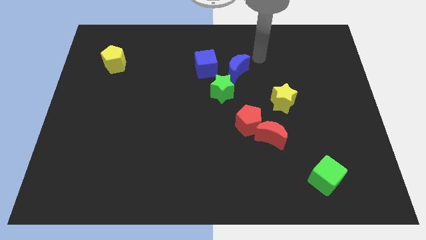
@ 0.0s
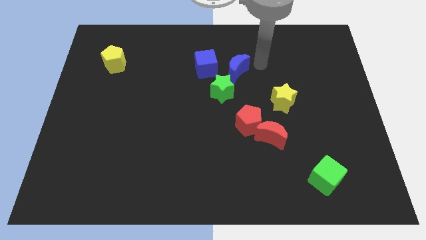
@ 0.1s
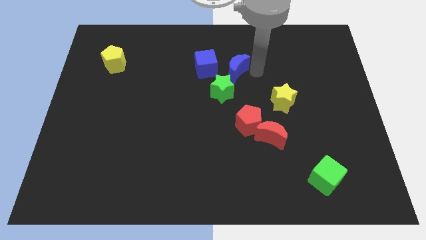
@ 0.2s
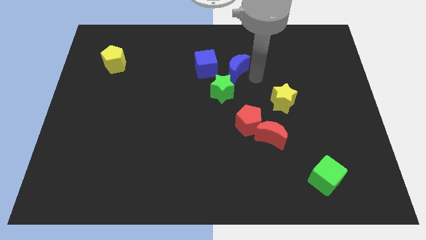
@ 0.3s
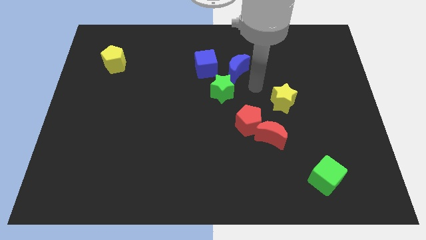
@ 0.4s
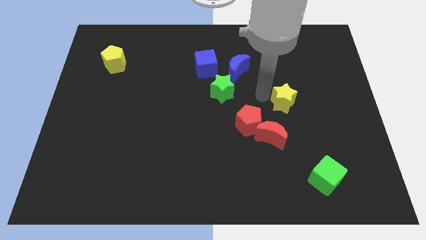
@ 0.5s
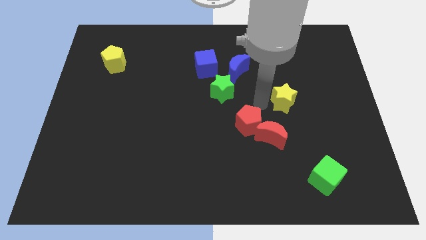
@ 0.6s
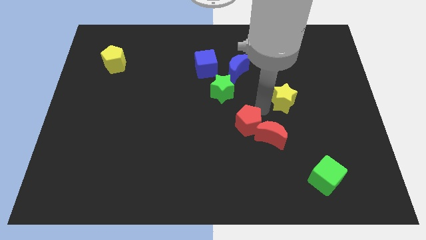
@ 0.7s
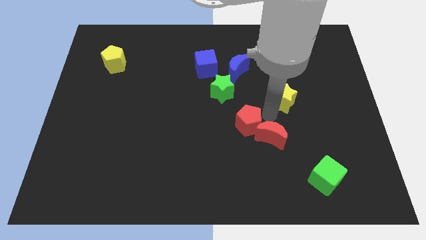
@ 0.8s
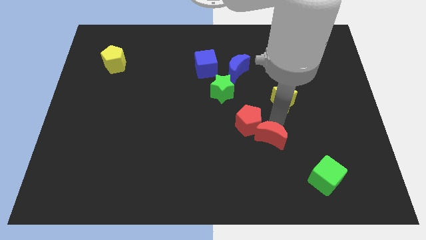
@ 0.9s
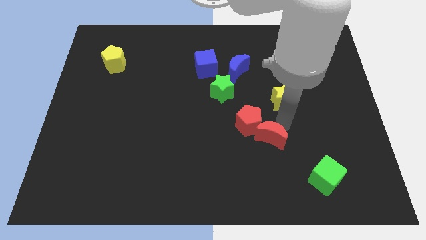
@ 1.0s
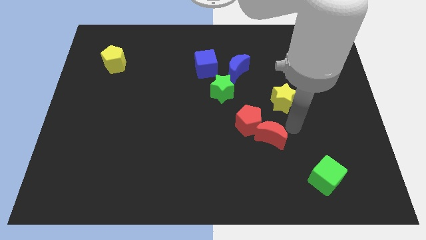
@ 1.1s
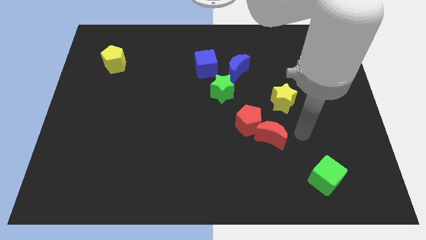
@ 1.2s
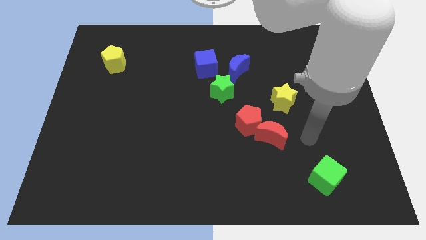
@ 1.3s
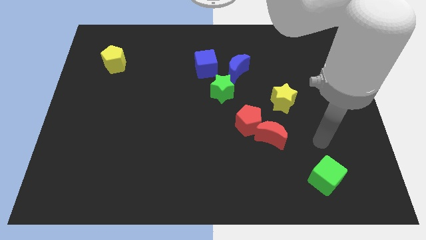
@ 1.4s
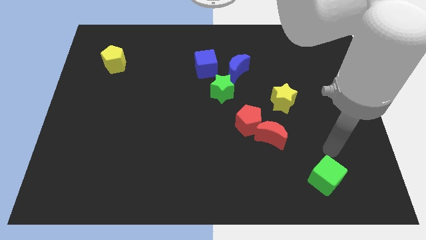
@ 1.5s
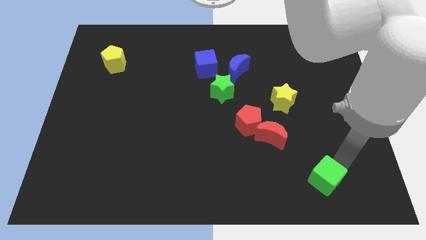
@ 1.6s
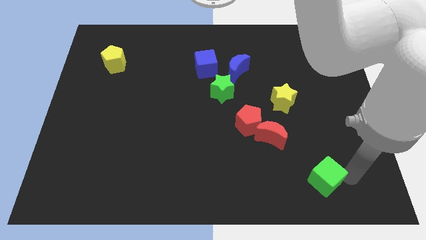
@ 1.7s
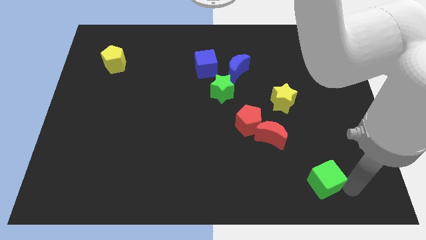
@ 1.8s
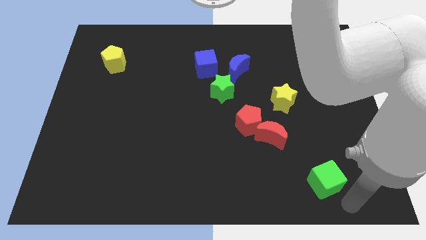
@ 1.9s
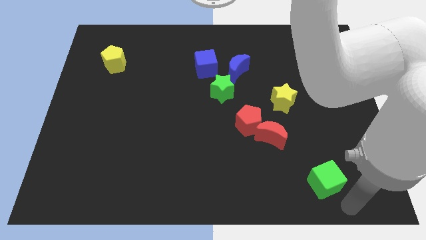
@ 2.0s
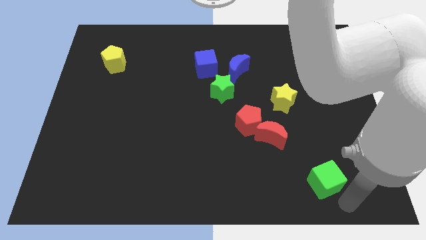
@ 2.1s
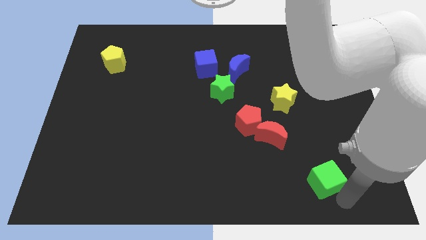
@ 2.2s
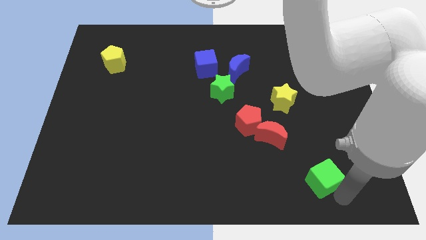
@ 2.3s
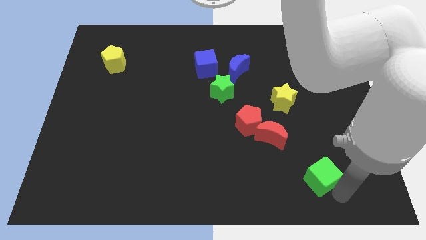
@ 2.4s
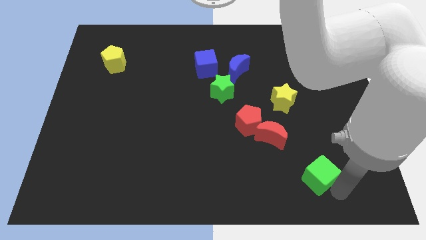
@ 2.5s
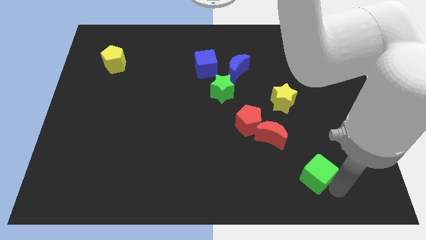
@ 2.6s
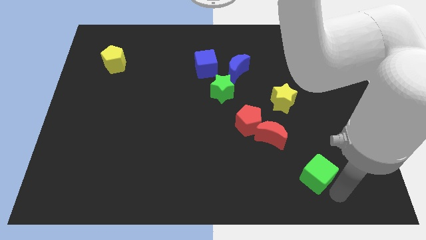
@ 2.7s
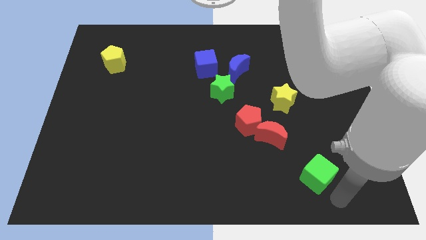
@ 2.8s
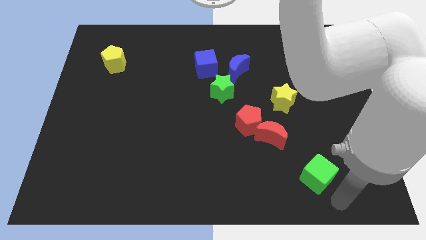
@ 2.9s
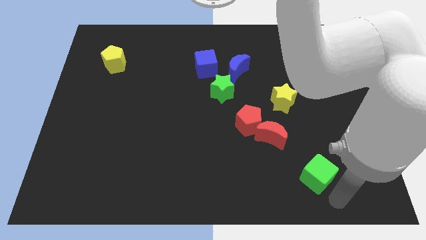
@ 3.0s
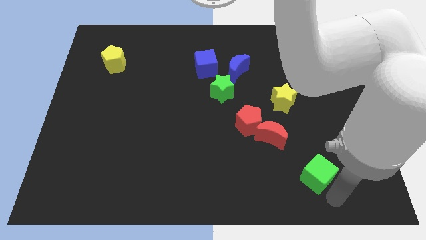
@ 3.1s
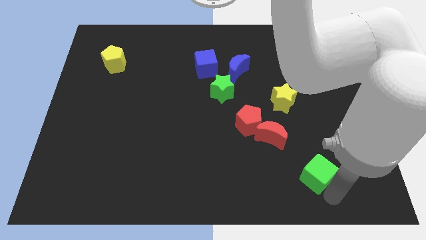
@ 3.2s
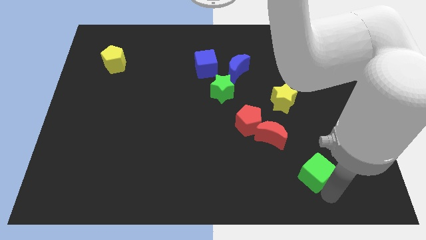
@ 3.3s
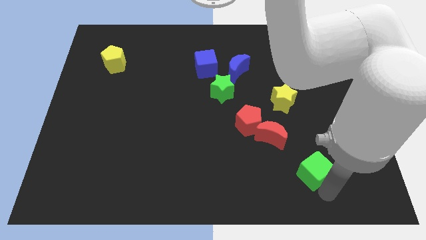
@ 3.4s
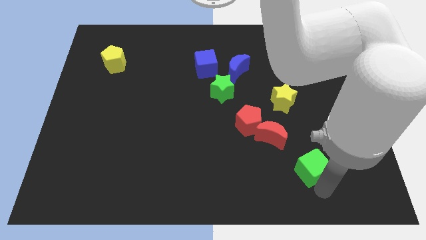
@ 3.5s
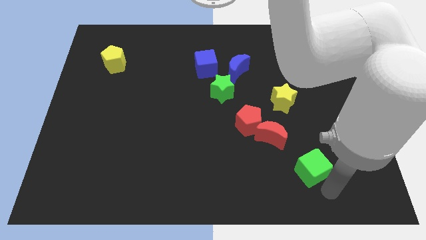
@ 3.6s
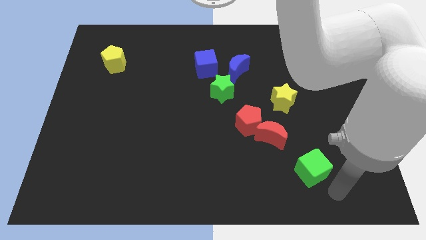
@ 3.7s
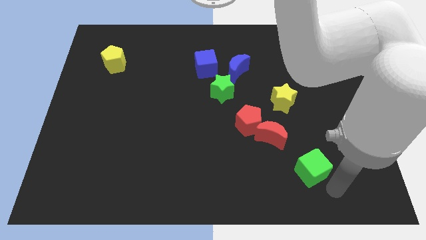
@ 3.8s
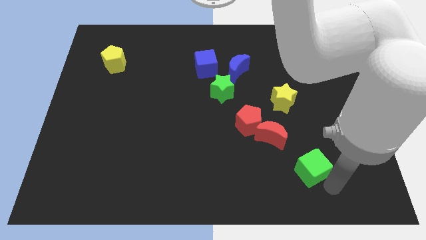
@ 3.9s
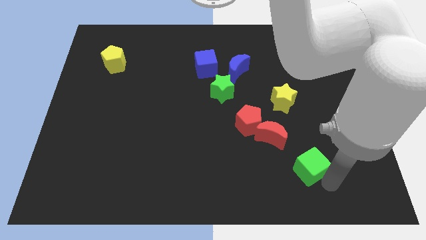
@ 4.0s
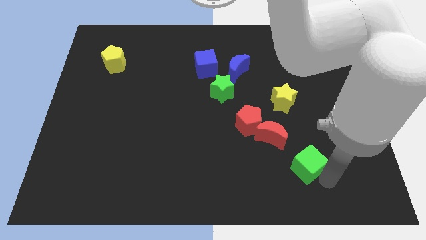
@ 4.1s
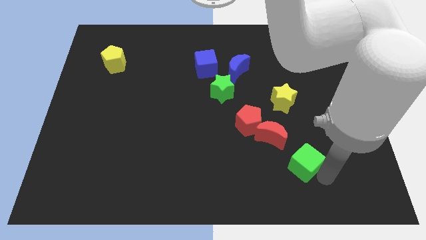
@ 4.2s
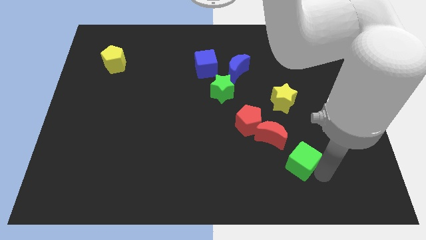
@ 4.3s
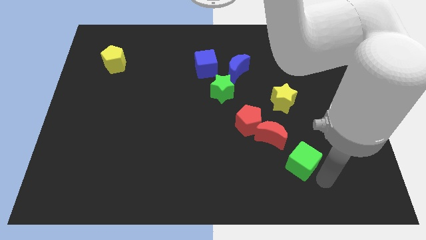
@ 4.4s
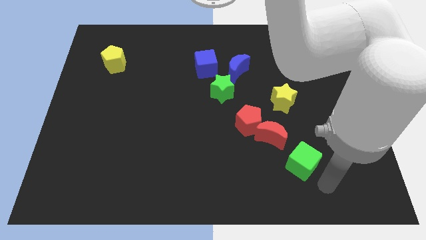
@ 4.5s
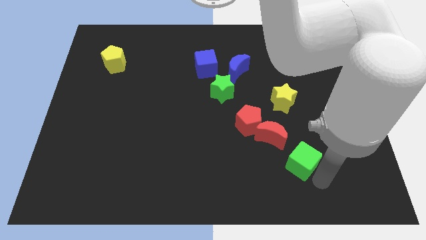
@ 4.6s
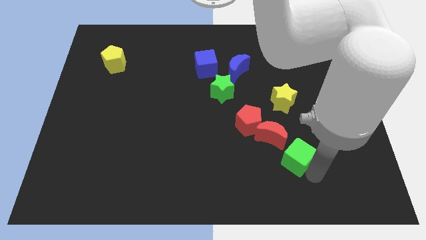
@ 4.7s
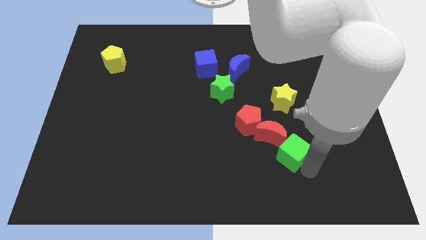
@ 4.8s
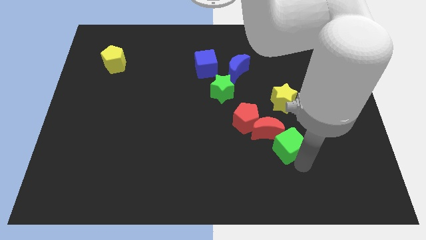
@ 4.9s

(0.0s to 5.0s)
put the green cube to the red moon

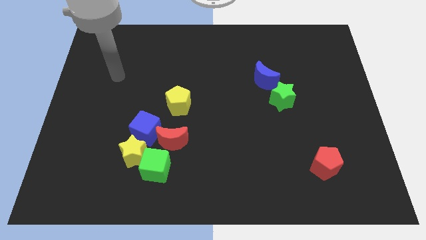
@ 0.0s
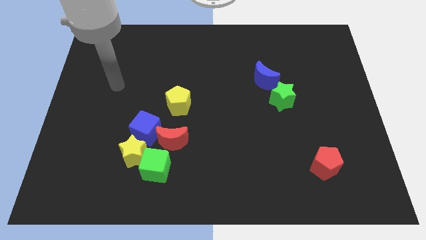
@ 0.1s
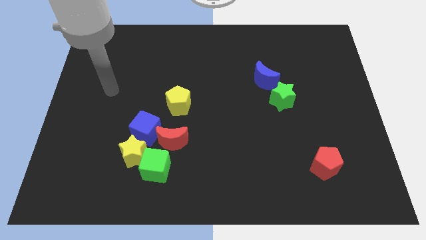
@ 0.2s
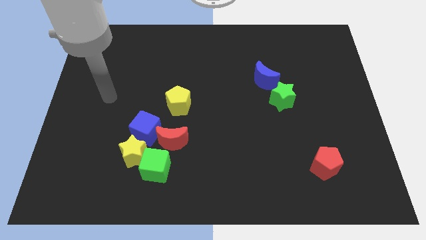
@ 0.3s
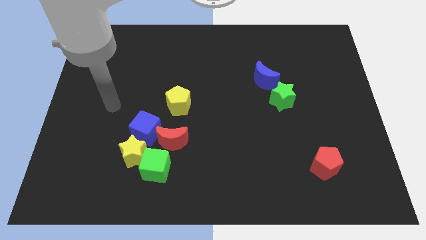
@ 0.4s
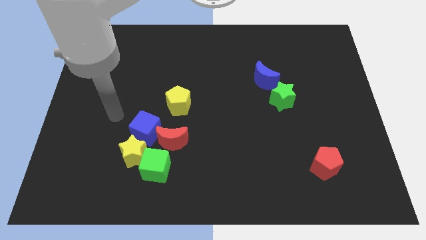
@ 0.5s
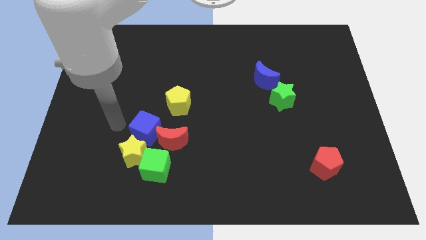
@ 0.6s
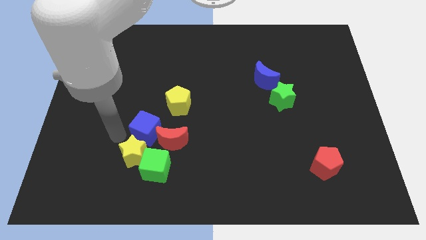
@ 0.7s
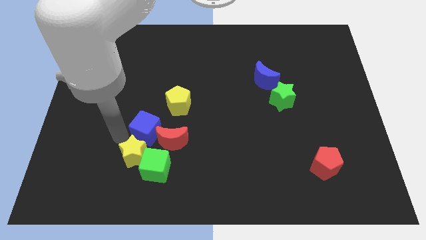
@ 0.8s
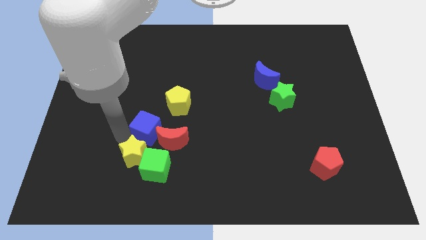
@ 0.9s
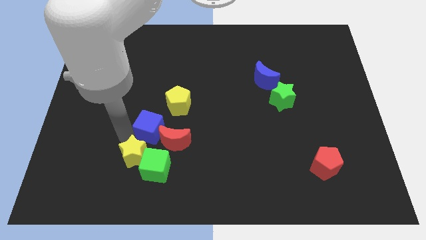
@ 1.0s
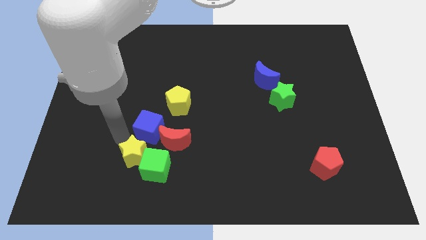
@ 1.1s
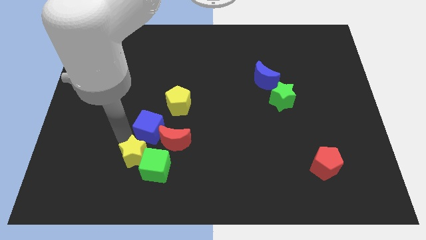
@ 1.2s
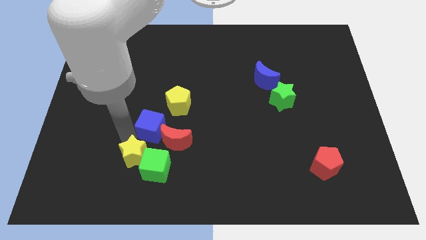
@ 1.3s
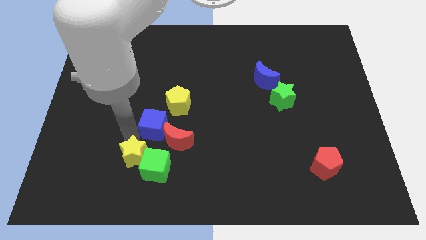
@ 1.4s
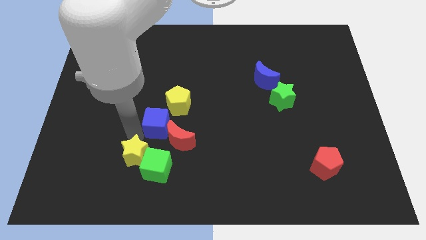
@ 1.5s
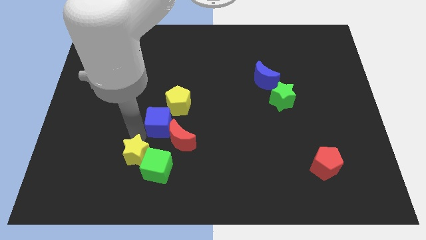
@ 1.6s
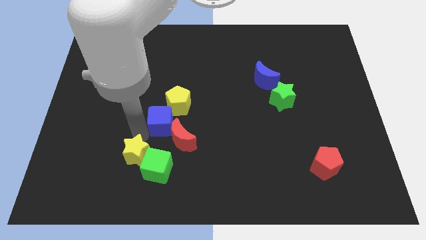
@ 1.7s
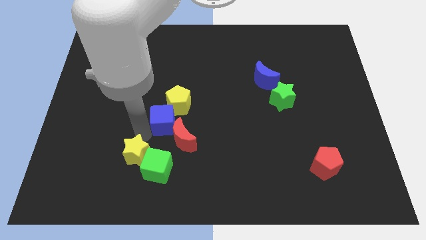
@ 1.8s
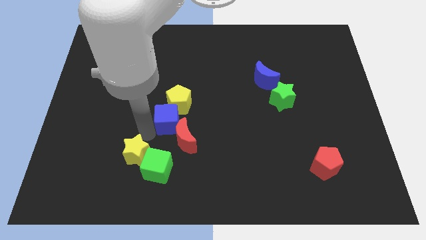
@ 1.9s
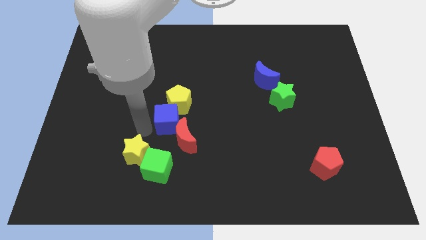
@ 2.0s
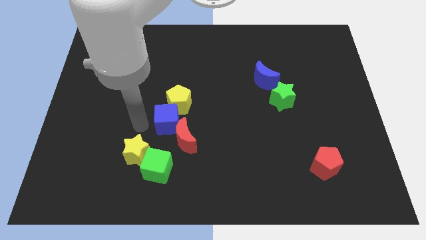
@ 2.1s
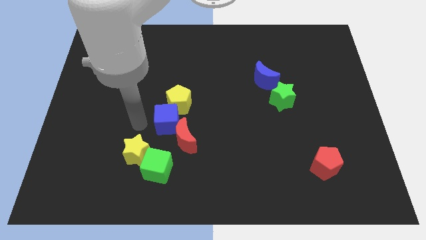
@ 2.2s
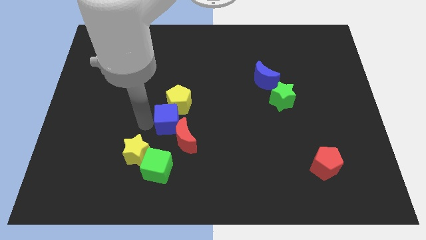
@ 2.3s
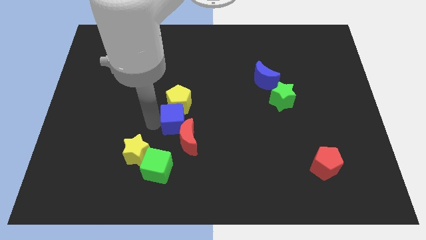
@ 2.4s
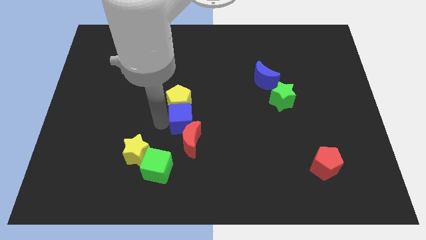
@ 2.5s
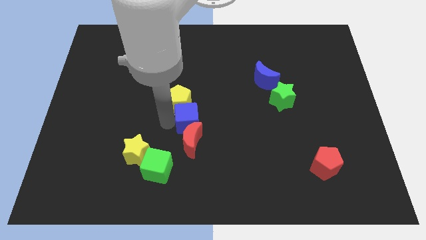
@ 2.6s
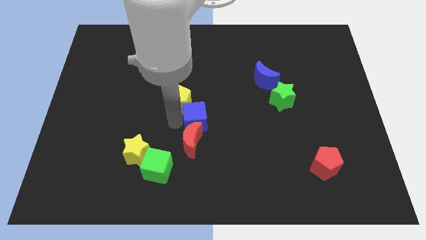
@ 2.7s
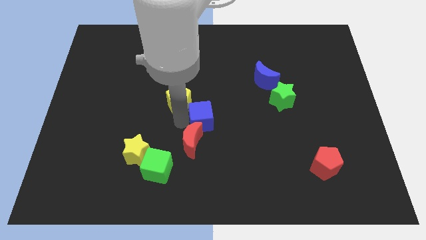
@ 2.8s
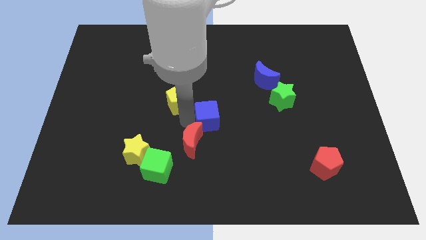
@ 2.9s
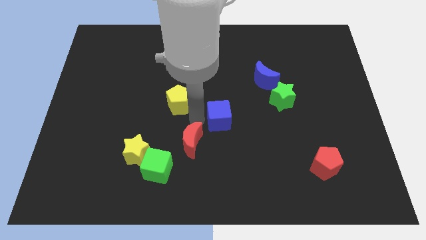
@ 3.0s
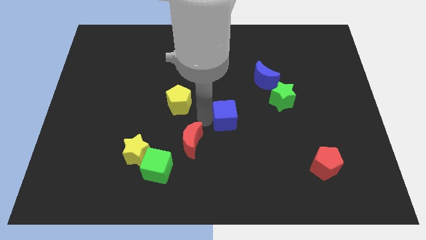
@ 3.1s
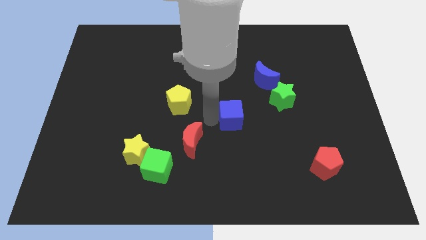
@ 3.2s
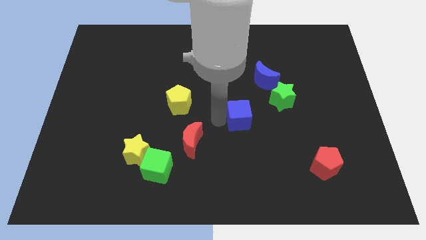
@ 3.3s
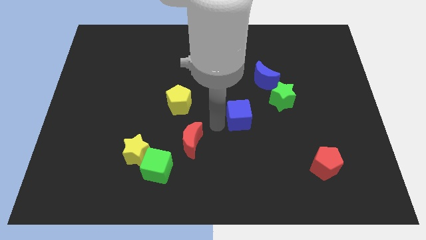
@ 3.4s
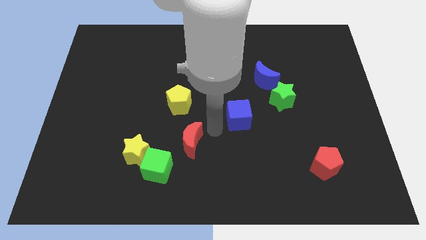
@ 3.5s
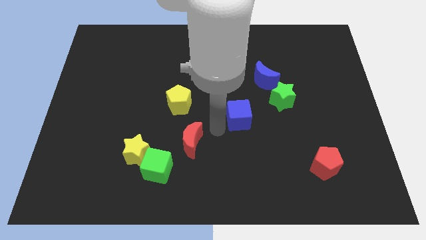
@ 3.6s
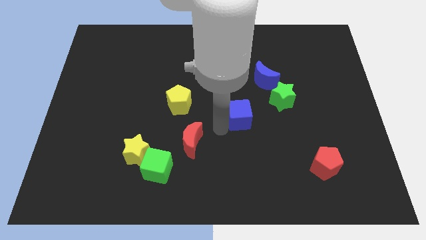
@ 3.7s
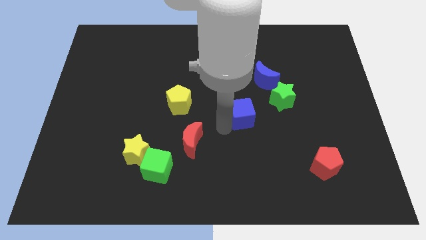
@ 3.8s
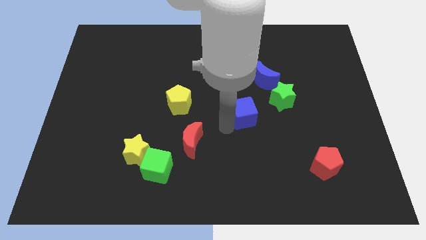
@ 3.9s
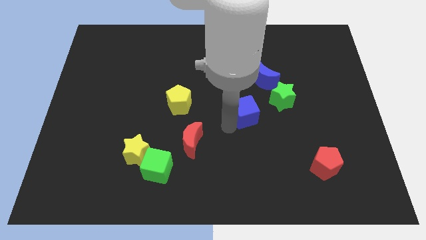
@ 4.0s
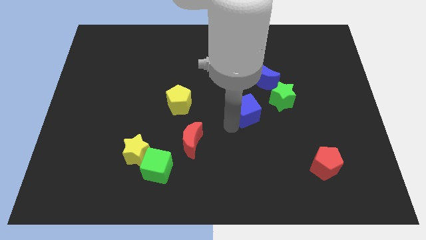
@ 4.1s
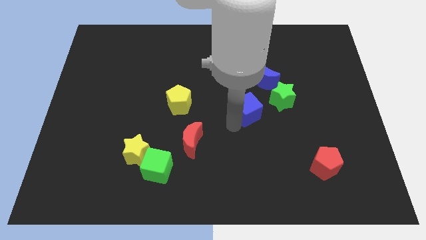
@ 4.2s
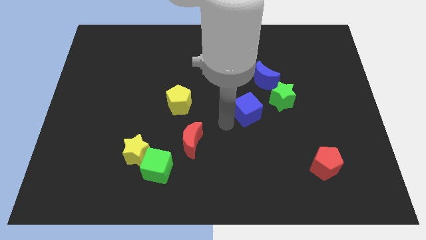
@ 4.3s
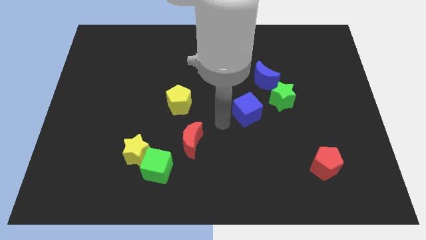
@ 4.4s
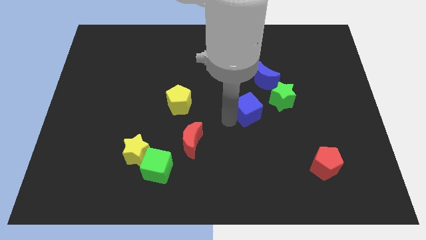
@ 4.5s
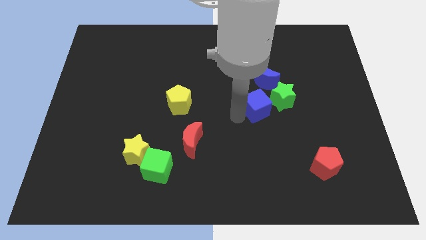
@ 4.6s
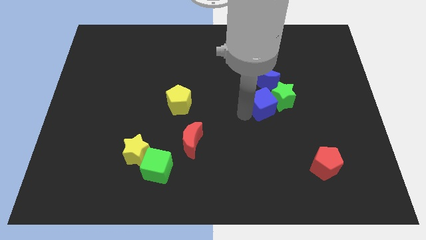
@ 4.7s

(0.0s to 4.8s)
move the blue cube next to the green star
